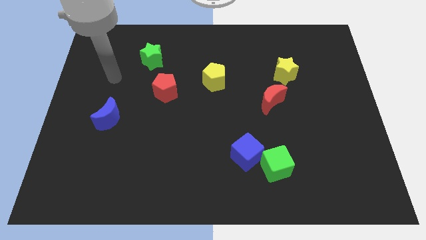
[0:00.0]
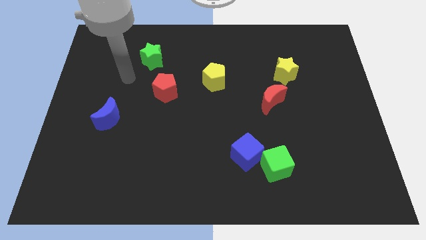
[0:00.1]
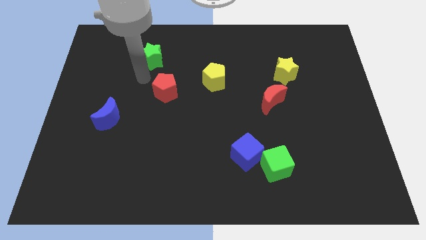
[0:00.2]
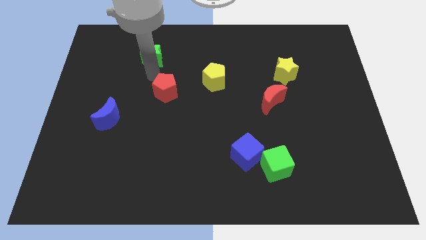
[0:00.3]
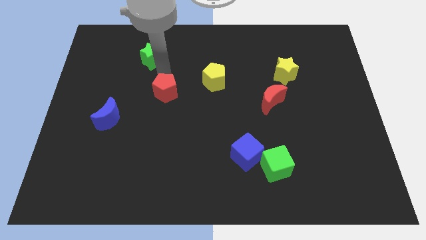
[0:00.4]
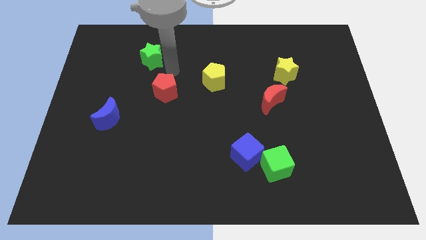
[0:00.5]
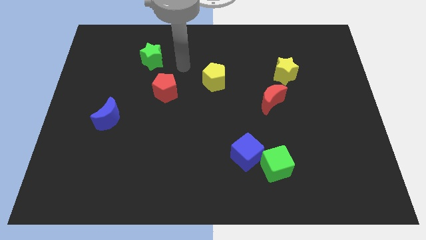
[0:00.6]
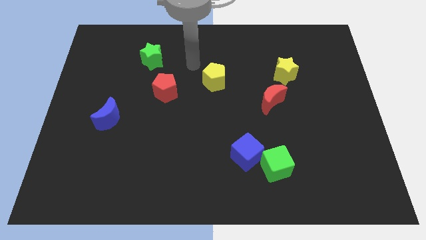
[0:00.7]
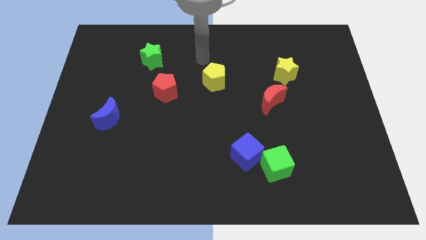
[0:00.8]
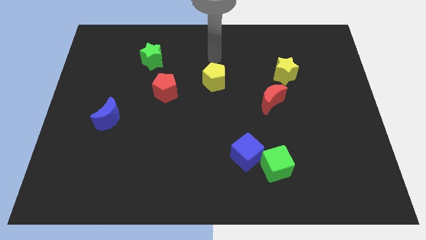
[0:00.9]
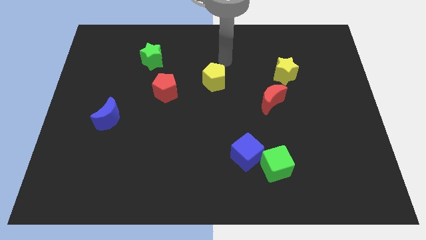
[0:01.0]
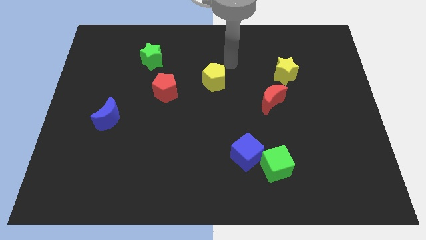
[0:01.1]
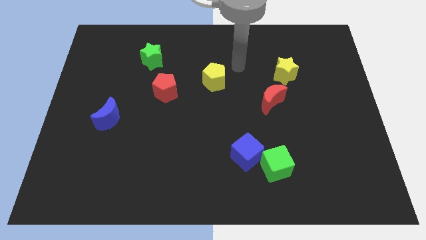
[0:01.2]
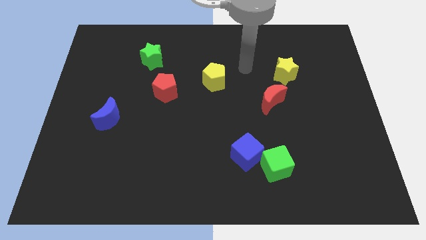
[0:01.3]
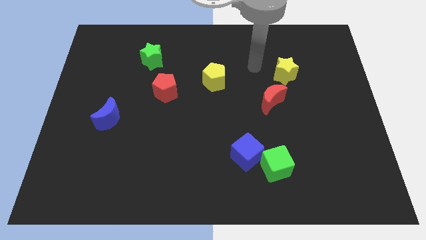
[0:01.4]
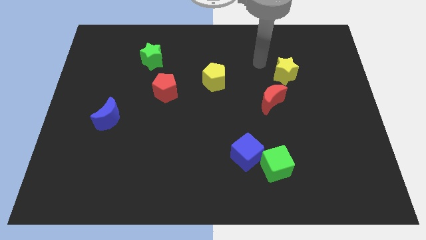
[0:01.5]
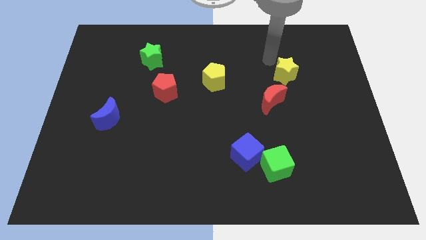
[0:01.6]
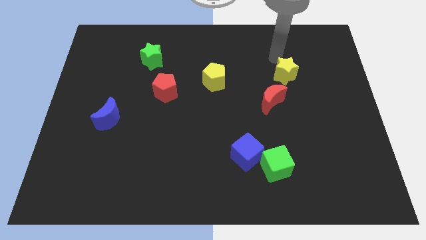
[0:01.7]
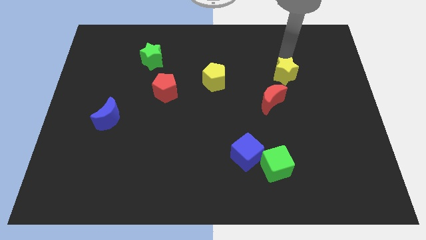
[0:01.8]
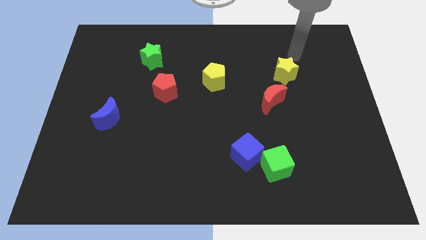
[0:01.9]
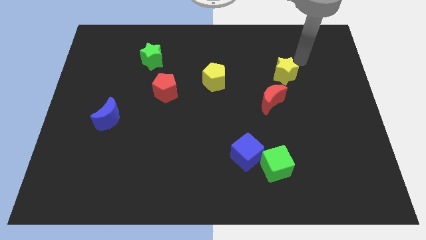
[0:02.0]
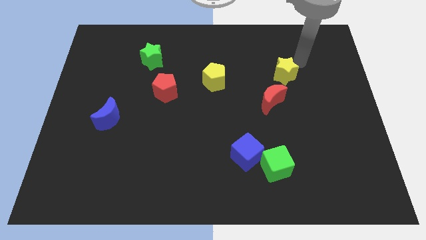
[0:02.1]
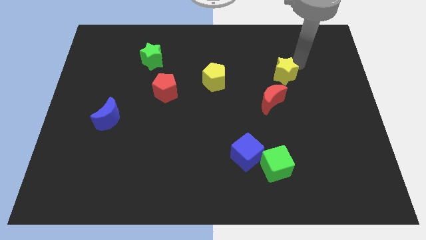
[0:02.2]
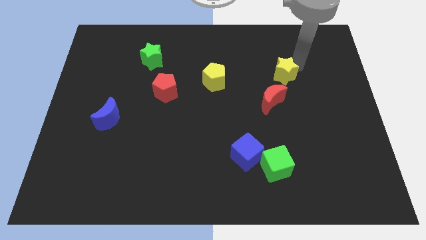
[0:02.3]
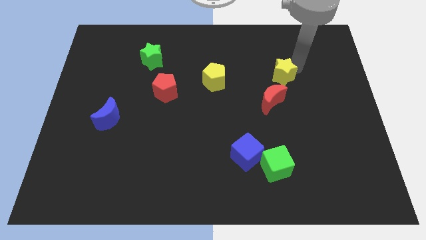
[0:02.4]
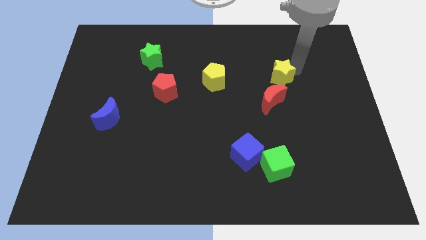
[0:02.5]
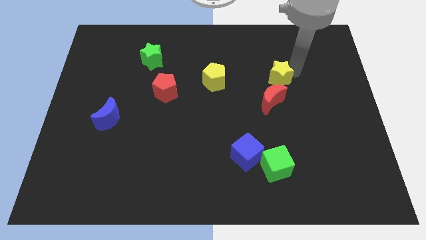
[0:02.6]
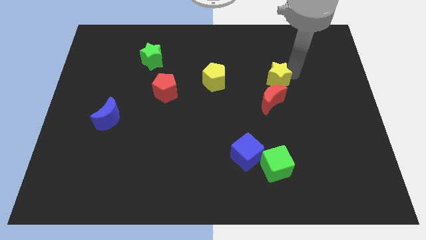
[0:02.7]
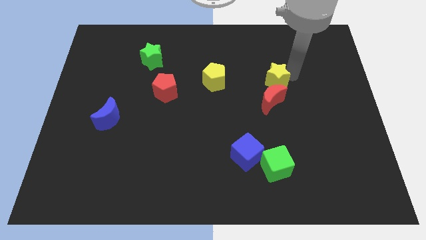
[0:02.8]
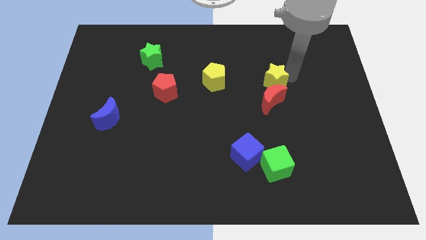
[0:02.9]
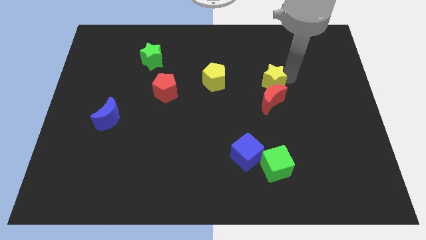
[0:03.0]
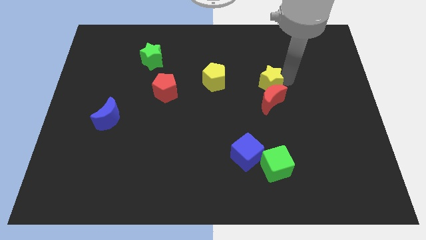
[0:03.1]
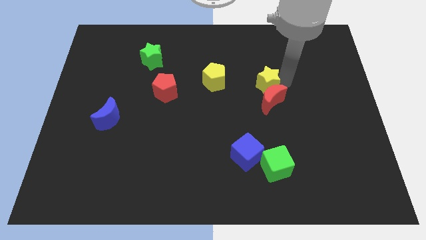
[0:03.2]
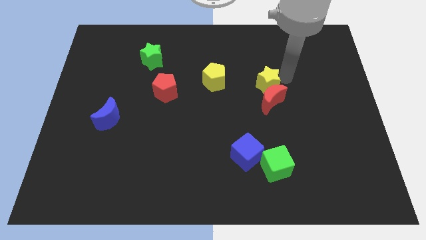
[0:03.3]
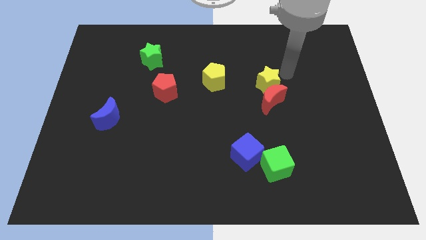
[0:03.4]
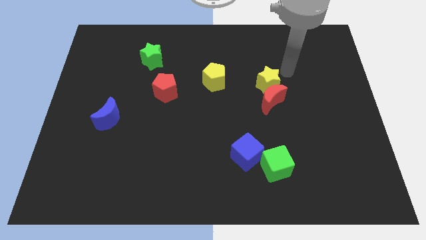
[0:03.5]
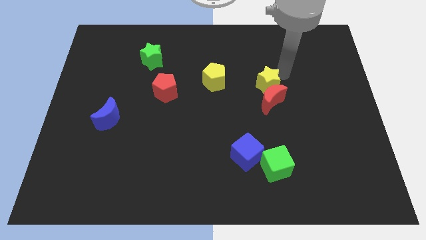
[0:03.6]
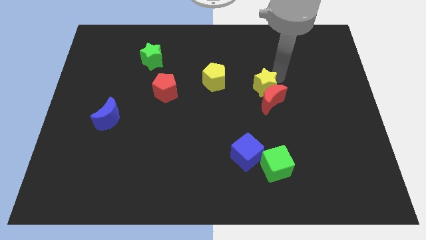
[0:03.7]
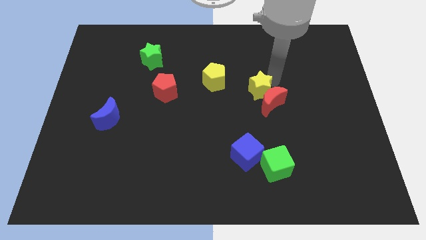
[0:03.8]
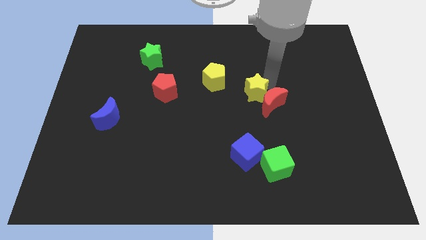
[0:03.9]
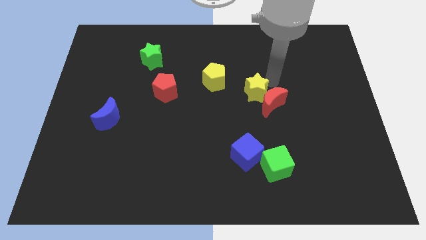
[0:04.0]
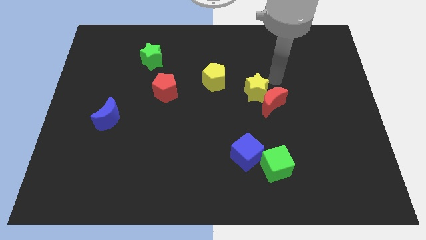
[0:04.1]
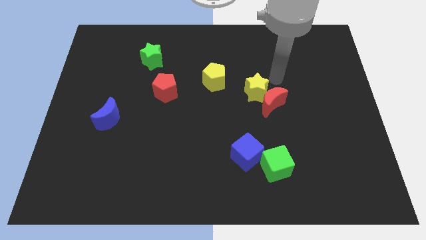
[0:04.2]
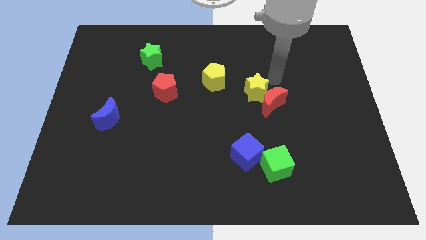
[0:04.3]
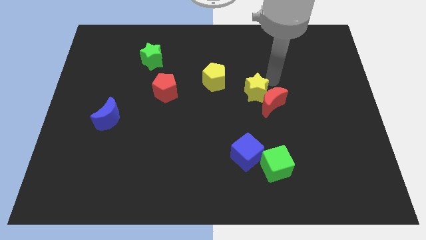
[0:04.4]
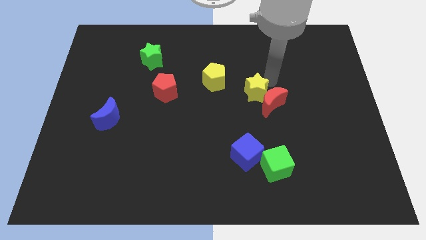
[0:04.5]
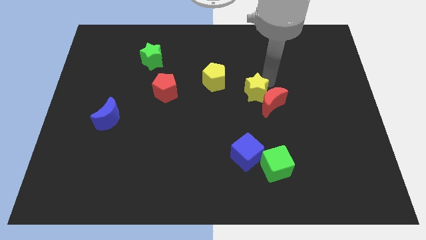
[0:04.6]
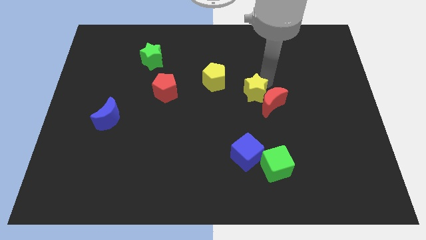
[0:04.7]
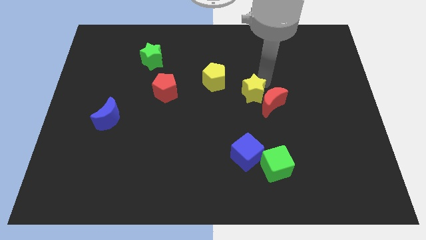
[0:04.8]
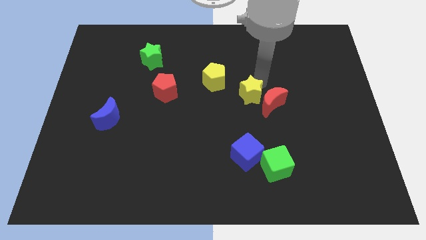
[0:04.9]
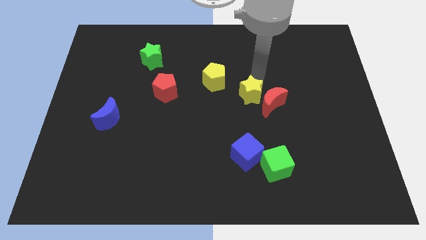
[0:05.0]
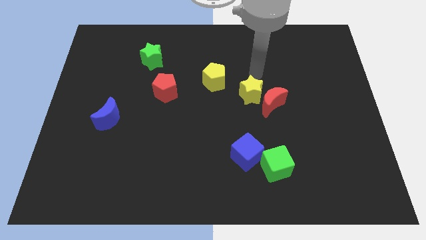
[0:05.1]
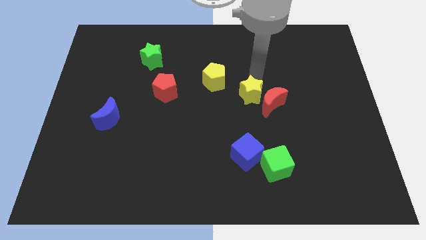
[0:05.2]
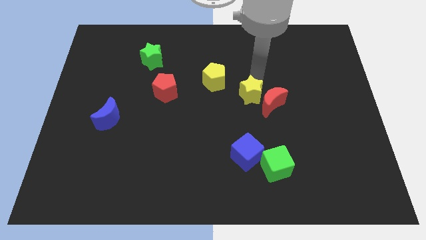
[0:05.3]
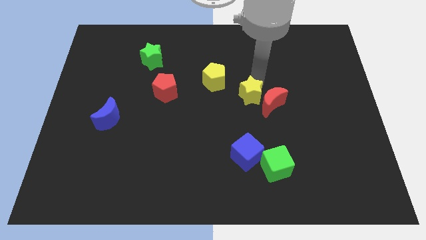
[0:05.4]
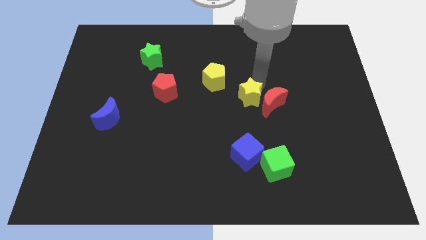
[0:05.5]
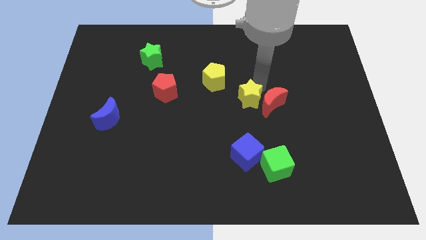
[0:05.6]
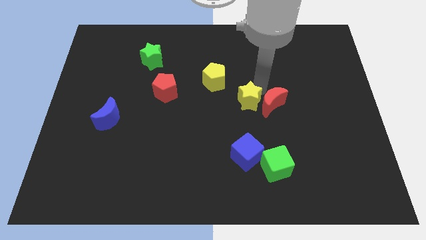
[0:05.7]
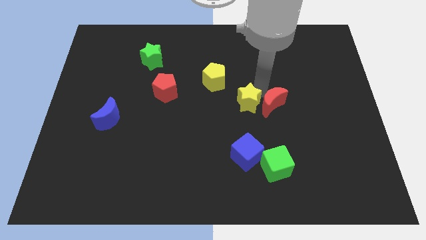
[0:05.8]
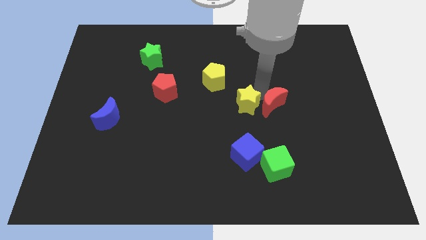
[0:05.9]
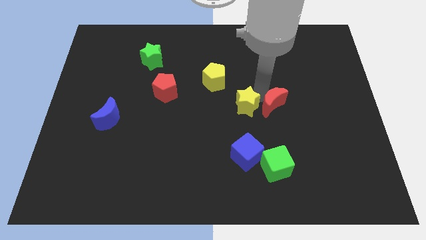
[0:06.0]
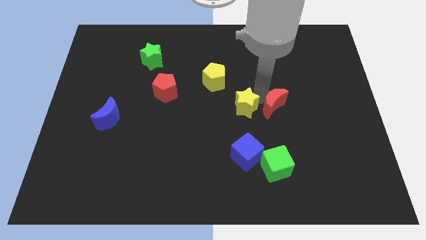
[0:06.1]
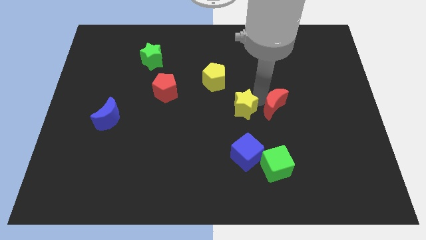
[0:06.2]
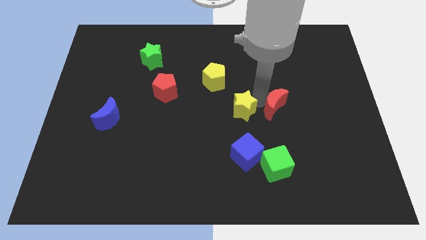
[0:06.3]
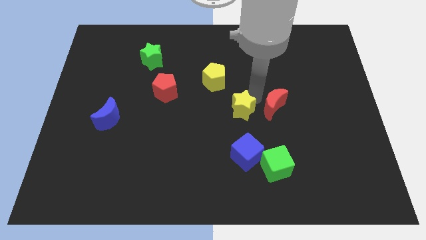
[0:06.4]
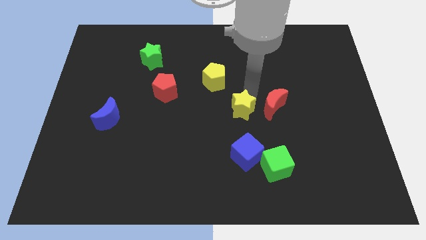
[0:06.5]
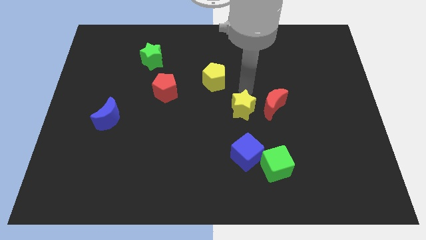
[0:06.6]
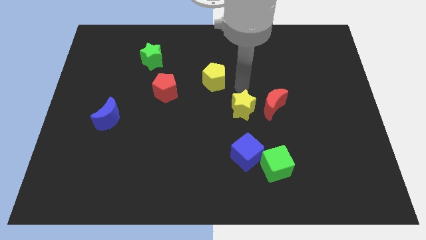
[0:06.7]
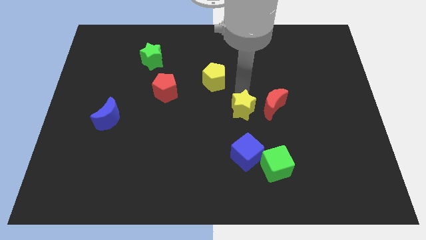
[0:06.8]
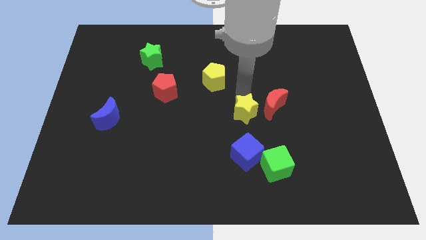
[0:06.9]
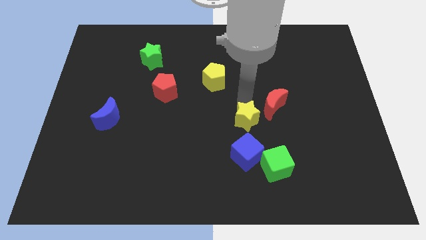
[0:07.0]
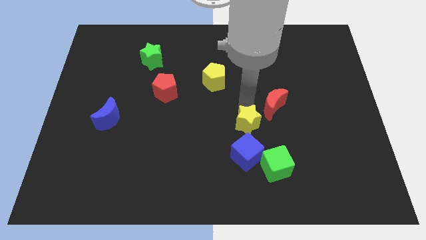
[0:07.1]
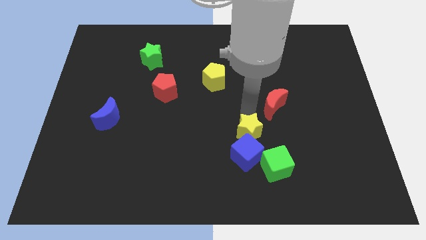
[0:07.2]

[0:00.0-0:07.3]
put the yellow star towards the blue cube
